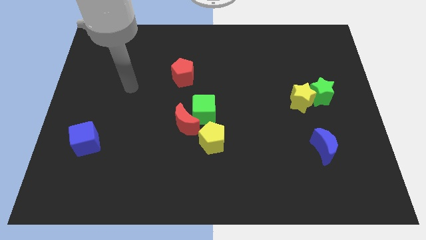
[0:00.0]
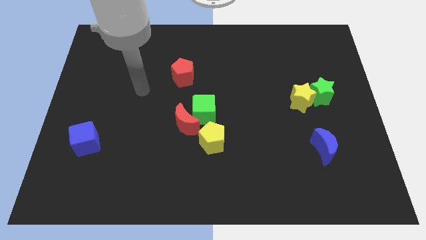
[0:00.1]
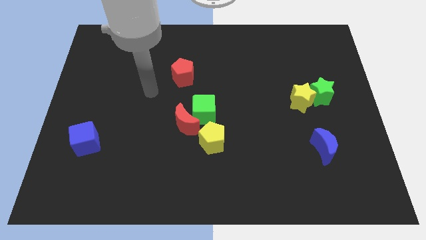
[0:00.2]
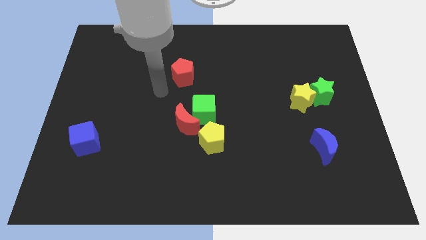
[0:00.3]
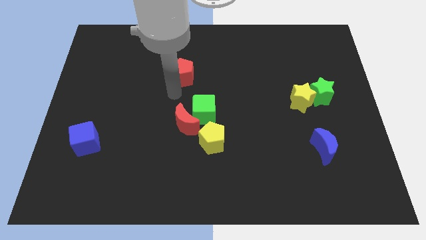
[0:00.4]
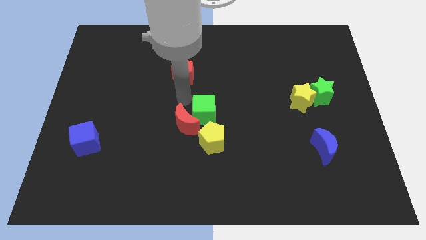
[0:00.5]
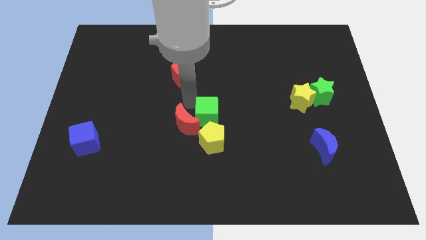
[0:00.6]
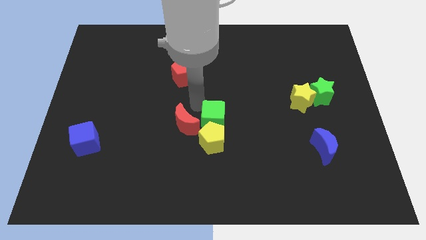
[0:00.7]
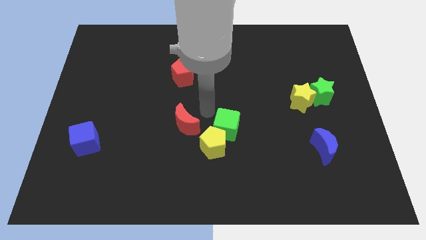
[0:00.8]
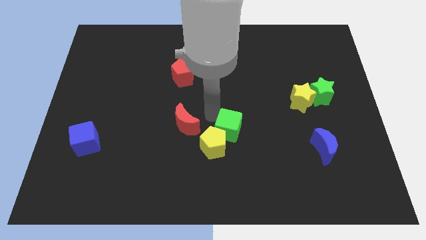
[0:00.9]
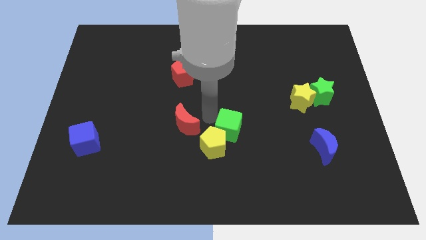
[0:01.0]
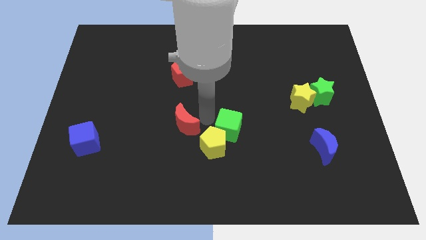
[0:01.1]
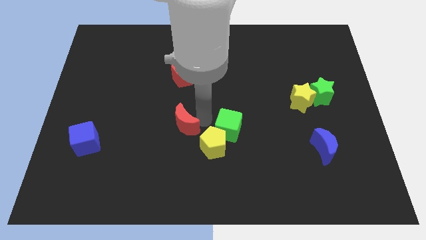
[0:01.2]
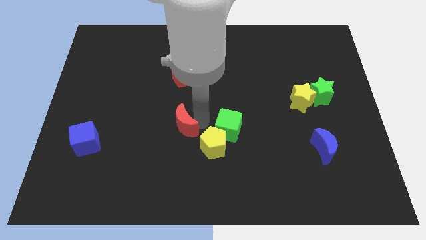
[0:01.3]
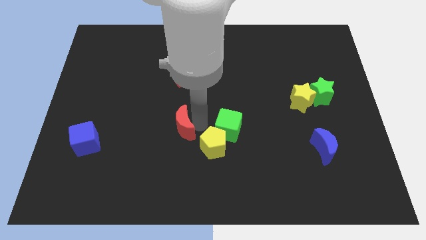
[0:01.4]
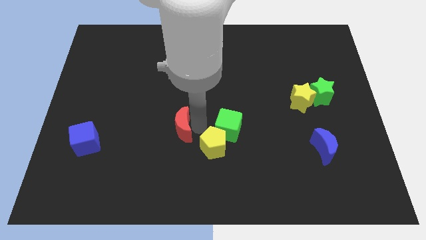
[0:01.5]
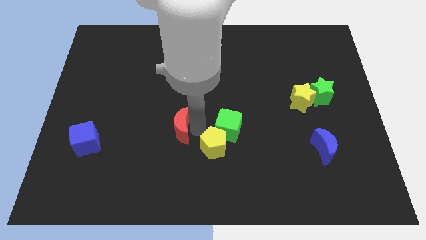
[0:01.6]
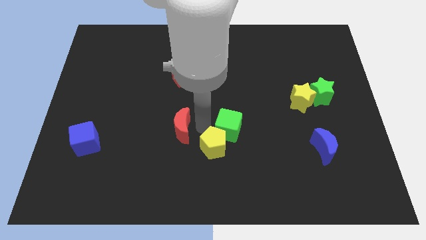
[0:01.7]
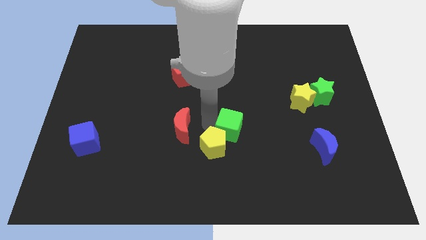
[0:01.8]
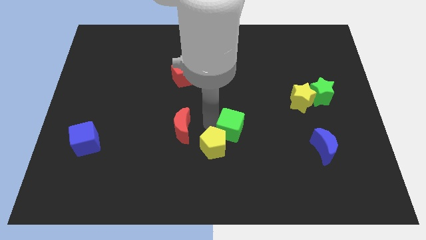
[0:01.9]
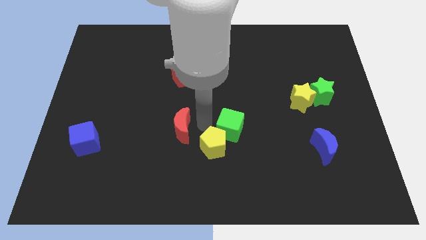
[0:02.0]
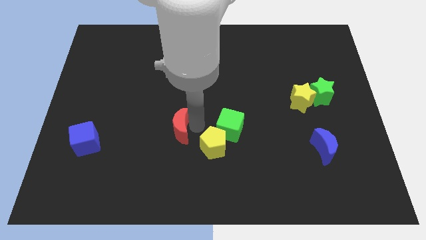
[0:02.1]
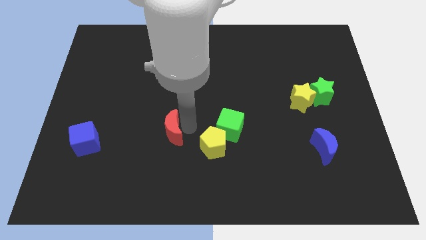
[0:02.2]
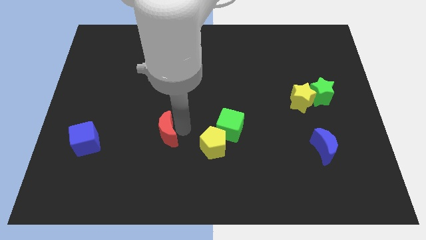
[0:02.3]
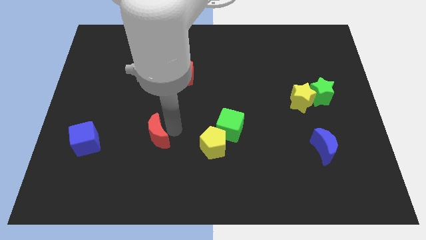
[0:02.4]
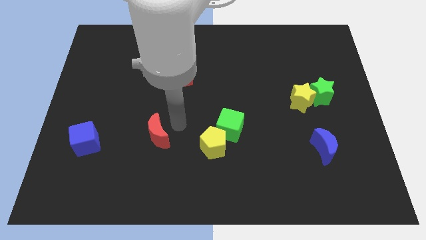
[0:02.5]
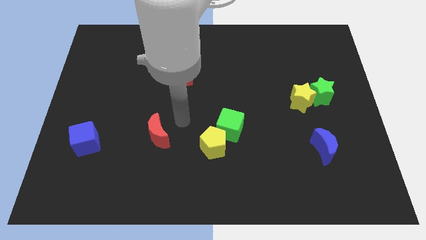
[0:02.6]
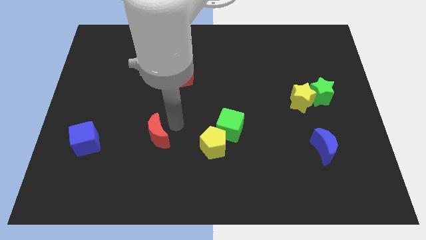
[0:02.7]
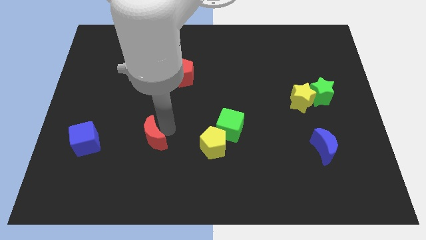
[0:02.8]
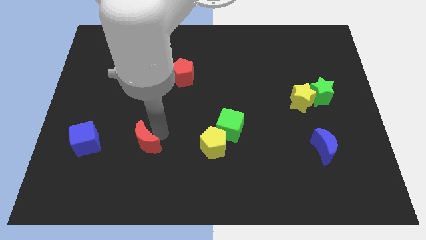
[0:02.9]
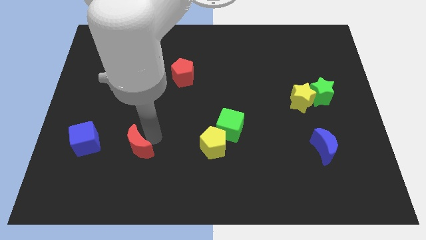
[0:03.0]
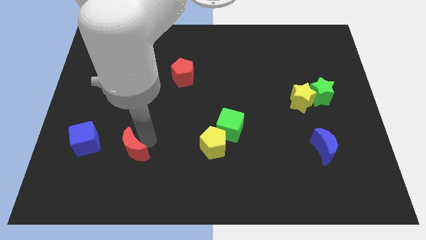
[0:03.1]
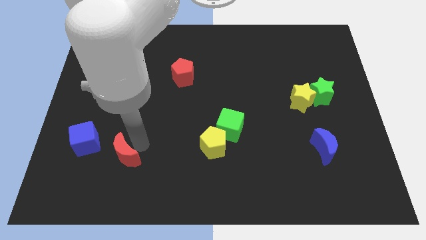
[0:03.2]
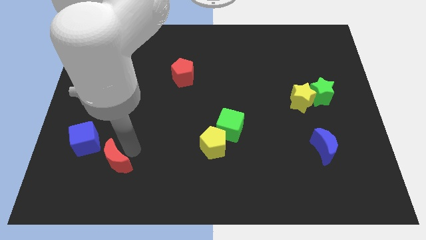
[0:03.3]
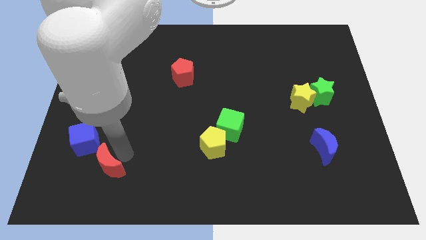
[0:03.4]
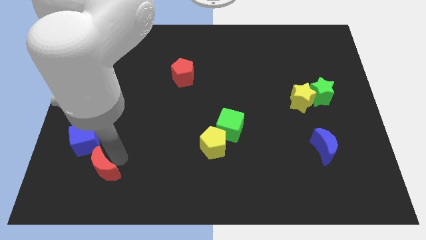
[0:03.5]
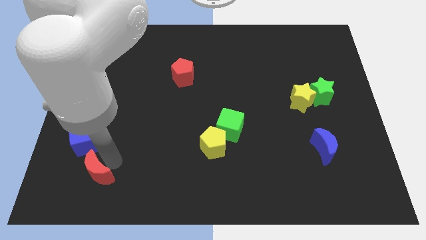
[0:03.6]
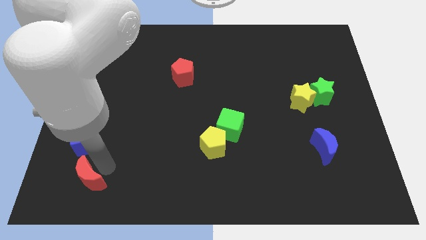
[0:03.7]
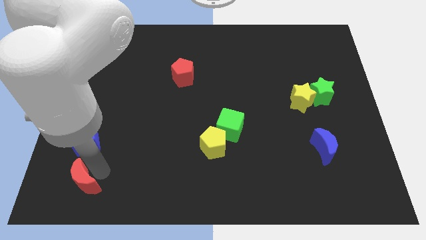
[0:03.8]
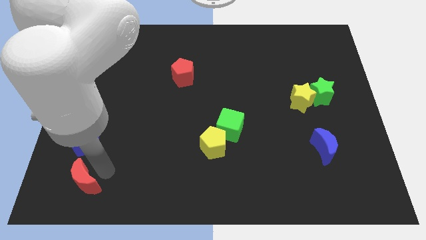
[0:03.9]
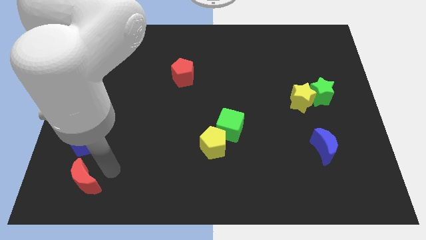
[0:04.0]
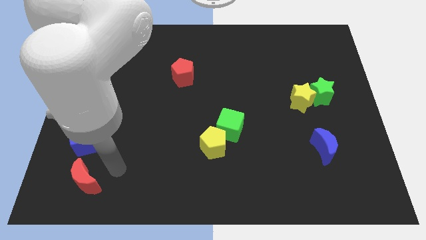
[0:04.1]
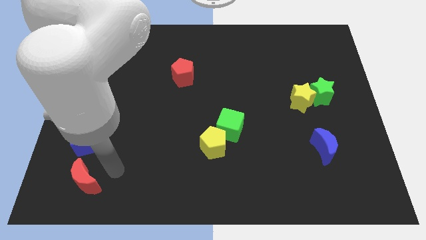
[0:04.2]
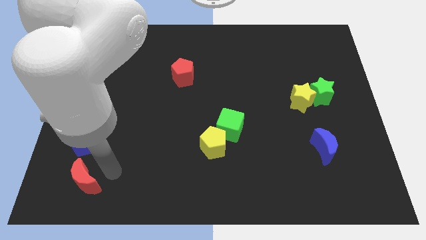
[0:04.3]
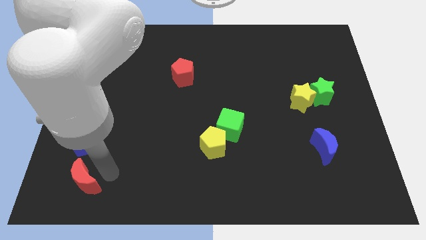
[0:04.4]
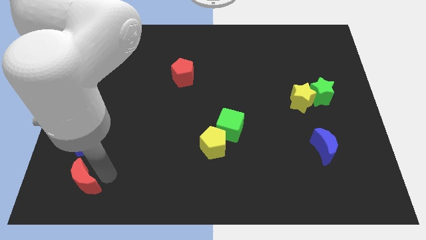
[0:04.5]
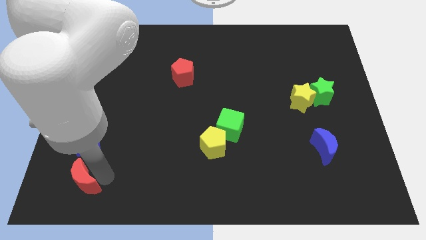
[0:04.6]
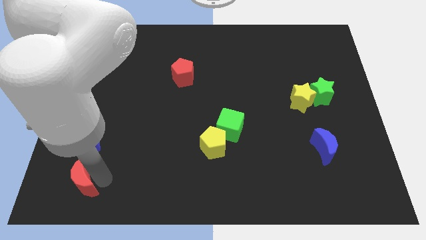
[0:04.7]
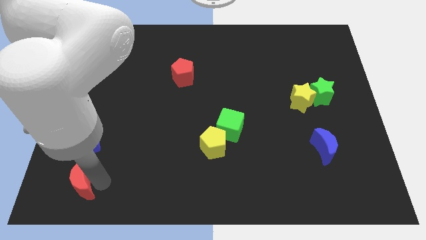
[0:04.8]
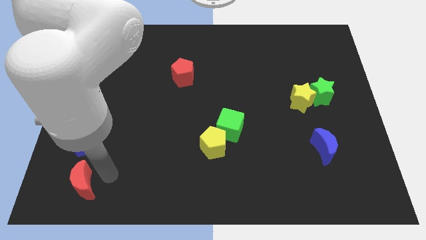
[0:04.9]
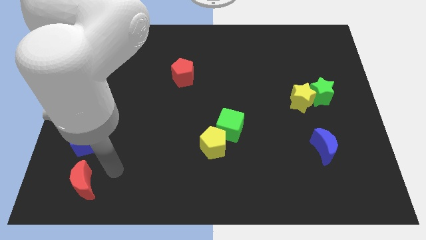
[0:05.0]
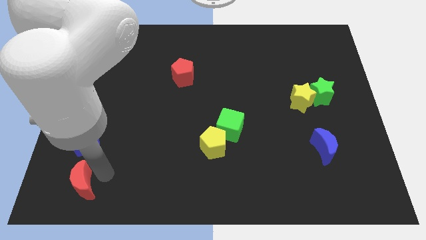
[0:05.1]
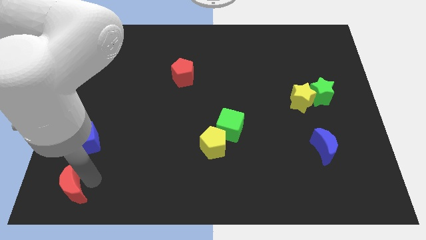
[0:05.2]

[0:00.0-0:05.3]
put the red moon to the bottom left of the board

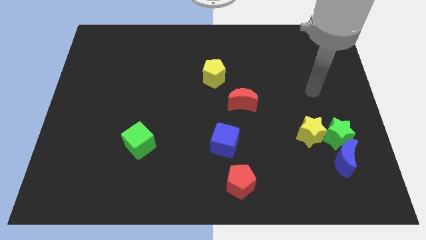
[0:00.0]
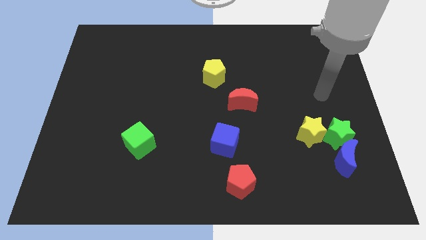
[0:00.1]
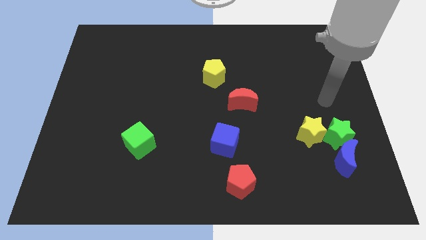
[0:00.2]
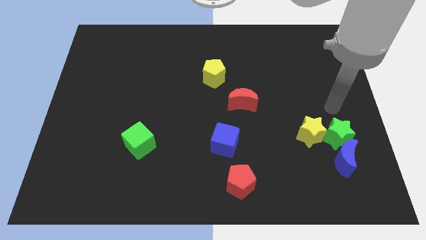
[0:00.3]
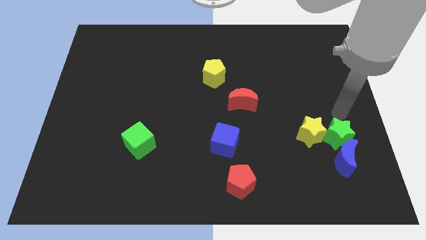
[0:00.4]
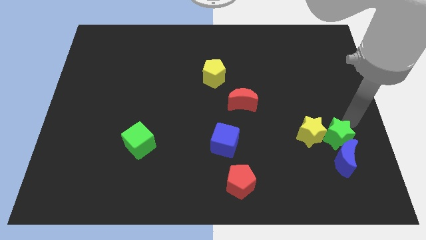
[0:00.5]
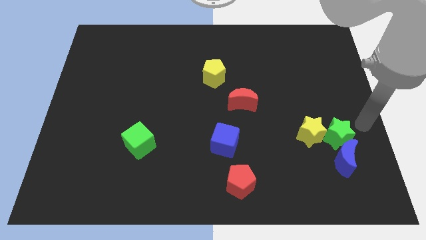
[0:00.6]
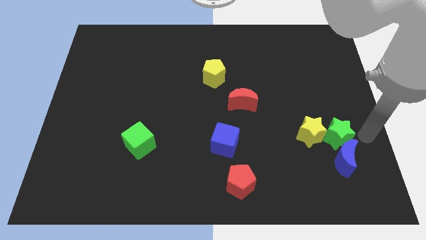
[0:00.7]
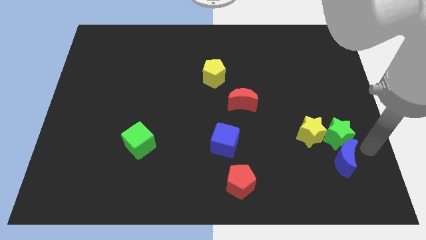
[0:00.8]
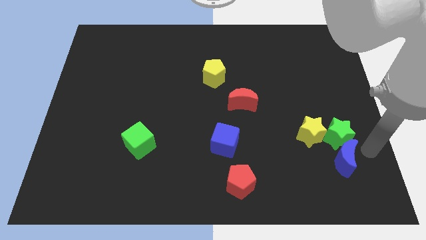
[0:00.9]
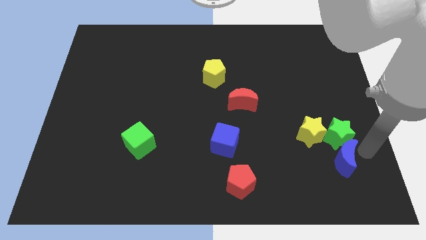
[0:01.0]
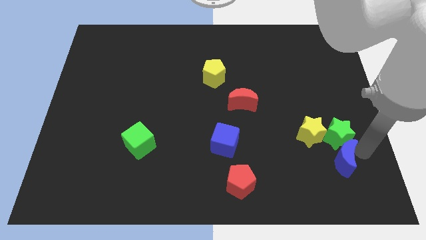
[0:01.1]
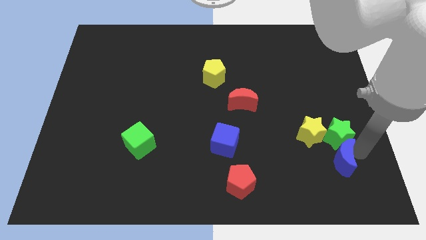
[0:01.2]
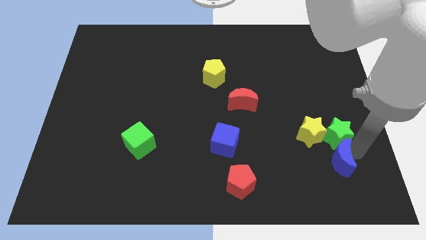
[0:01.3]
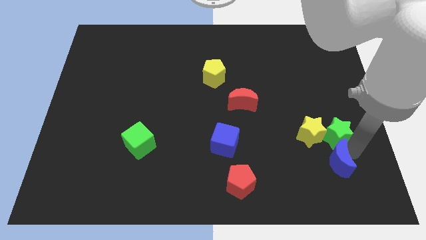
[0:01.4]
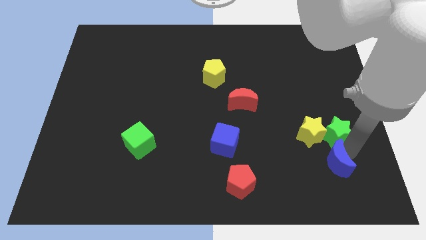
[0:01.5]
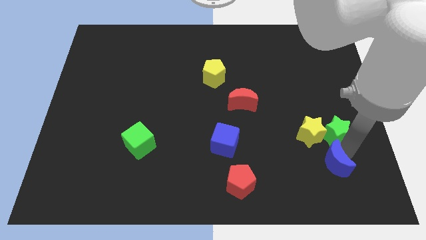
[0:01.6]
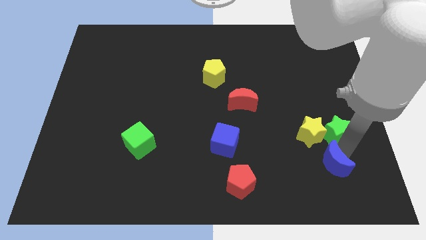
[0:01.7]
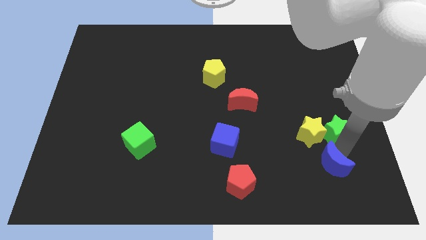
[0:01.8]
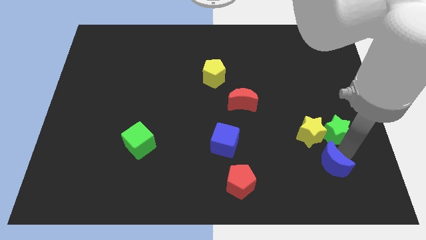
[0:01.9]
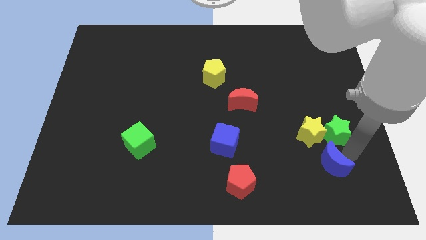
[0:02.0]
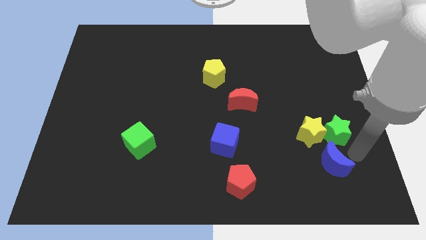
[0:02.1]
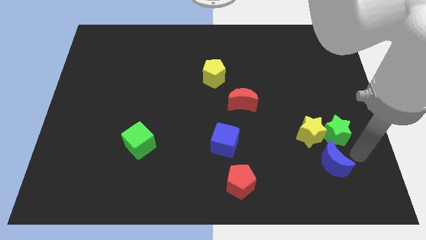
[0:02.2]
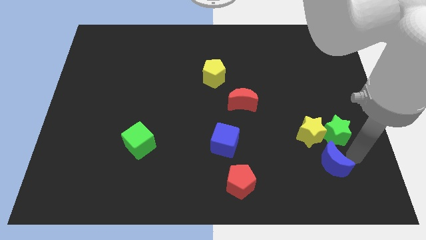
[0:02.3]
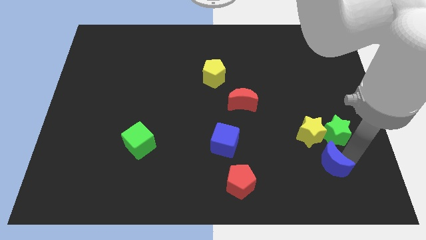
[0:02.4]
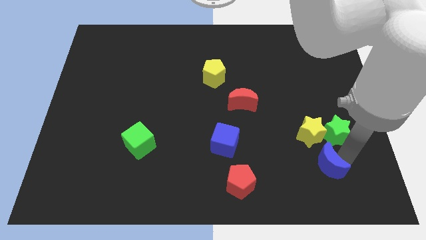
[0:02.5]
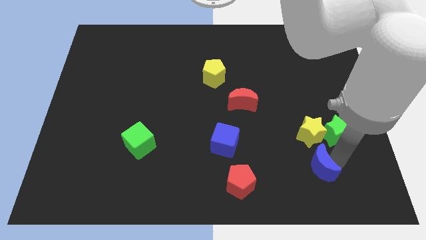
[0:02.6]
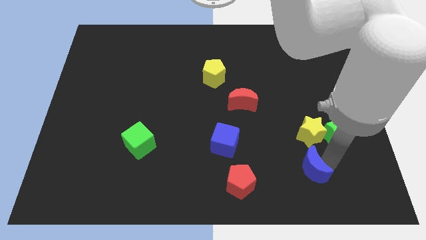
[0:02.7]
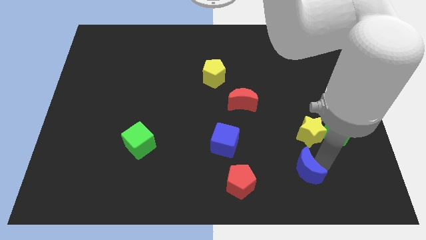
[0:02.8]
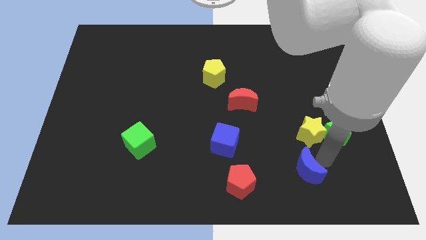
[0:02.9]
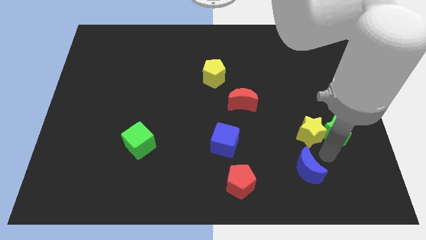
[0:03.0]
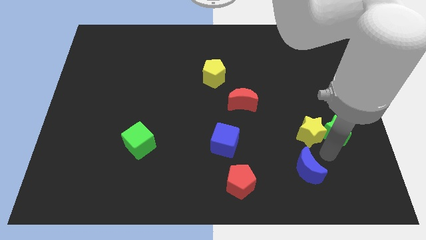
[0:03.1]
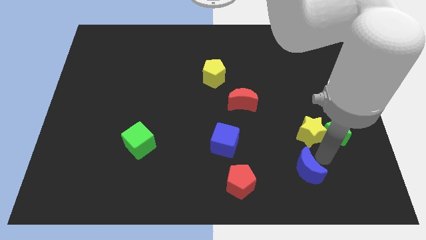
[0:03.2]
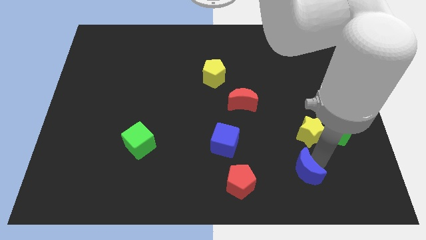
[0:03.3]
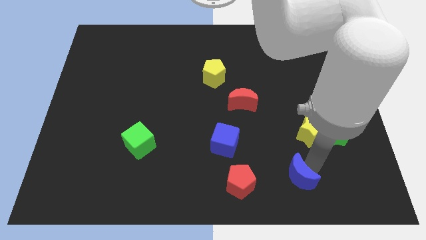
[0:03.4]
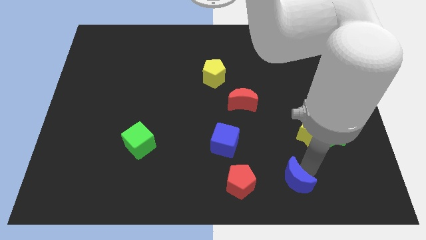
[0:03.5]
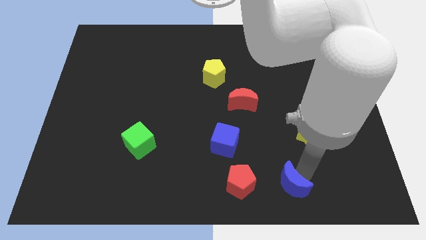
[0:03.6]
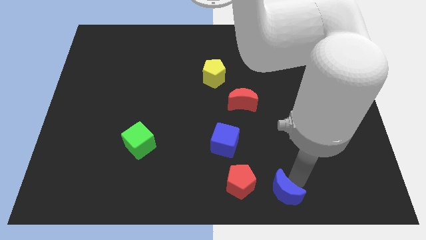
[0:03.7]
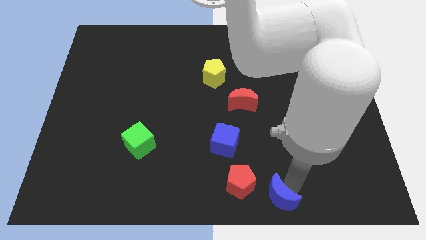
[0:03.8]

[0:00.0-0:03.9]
push the blue moon to the bottom side
